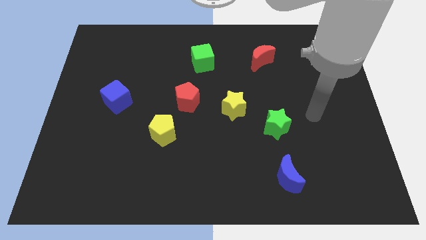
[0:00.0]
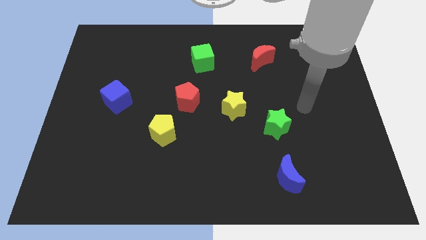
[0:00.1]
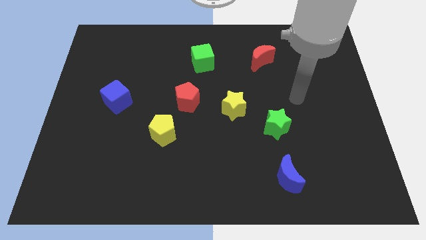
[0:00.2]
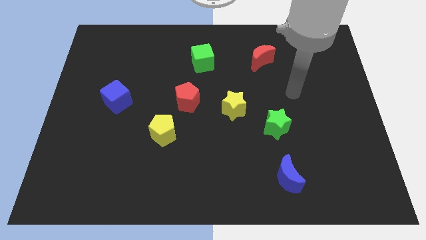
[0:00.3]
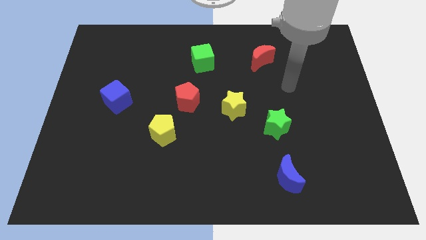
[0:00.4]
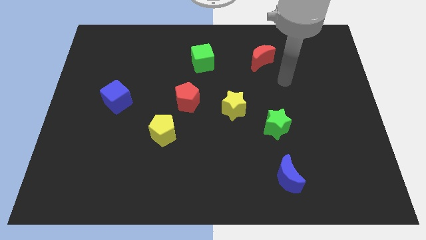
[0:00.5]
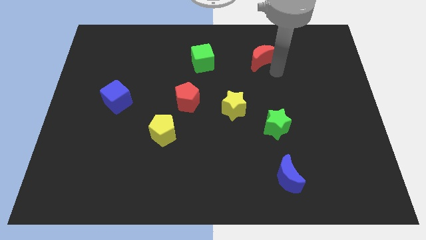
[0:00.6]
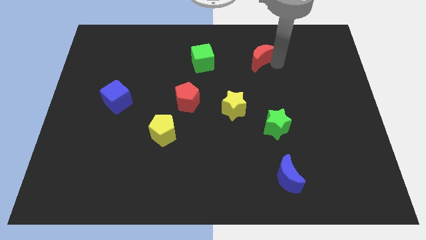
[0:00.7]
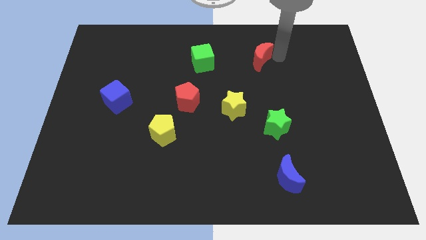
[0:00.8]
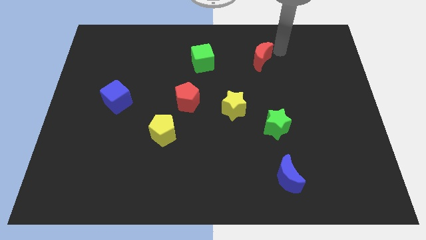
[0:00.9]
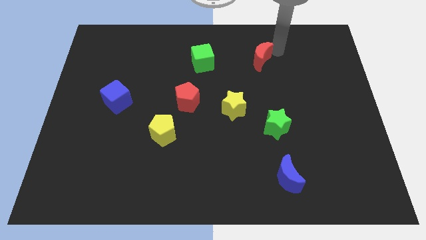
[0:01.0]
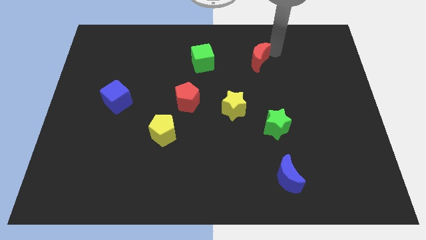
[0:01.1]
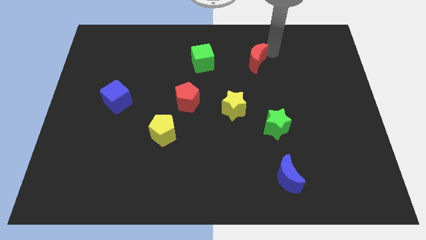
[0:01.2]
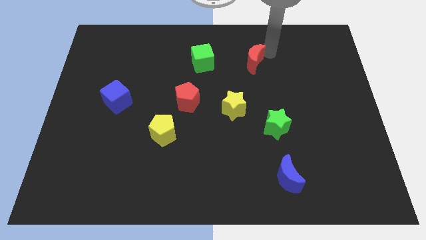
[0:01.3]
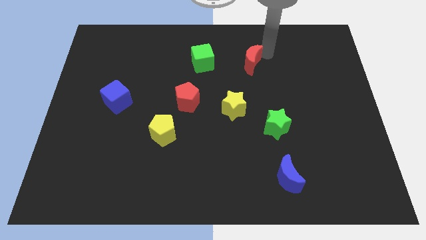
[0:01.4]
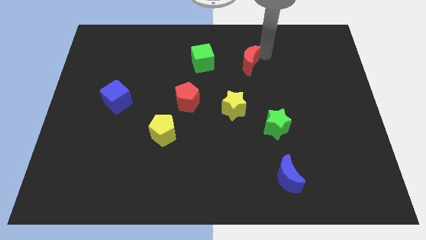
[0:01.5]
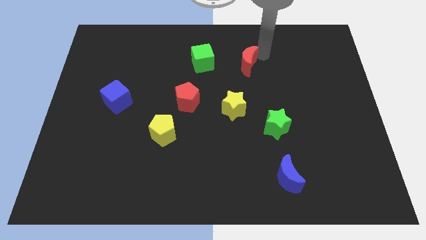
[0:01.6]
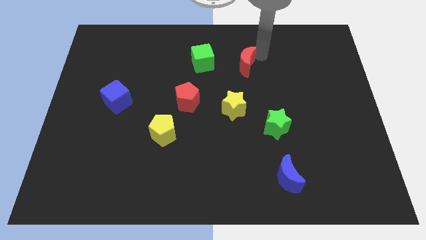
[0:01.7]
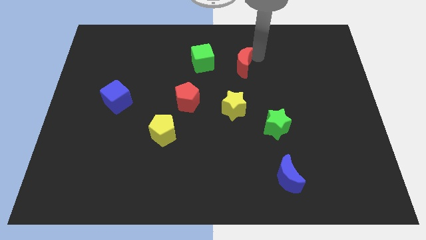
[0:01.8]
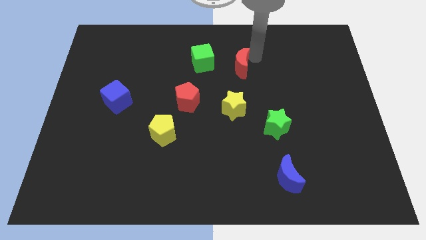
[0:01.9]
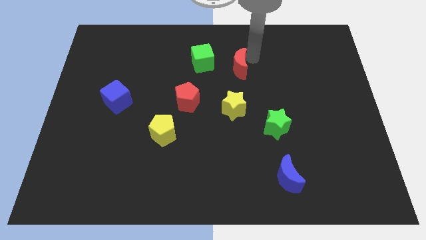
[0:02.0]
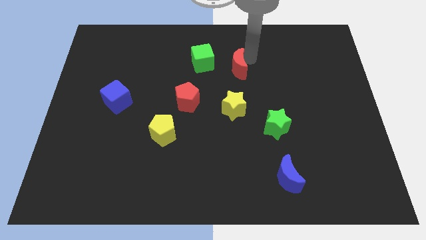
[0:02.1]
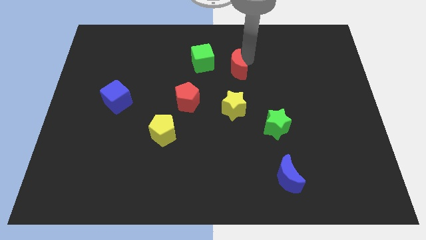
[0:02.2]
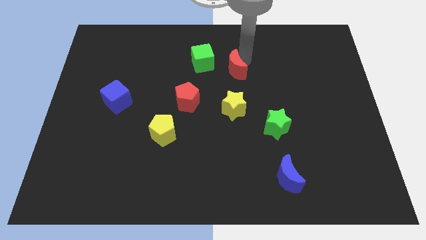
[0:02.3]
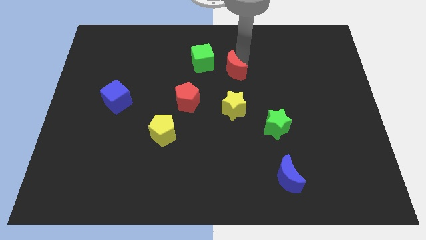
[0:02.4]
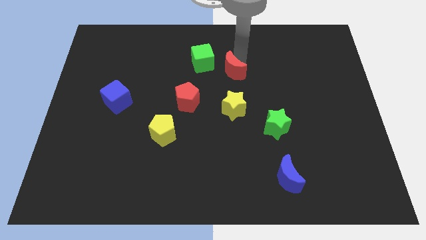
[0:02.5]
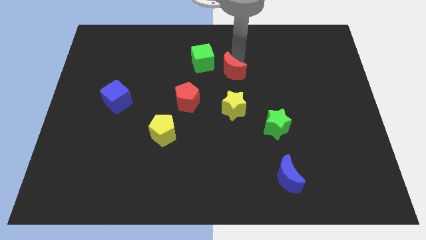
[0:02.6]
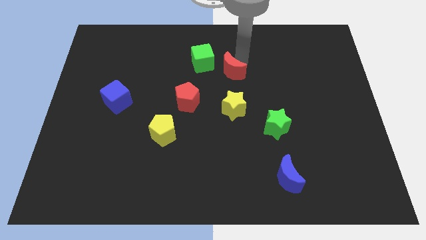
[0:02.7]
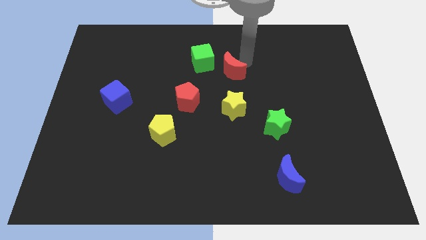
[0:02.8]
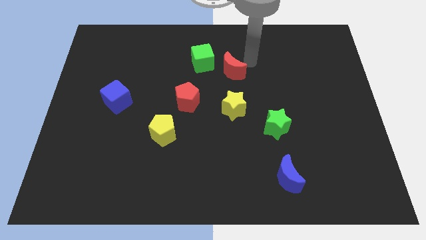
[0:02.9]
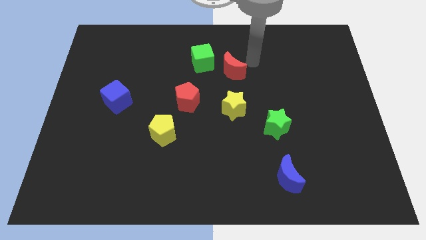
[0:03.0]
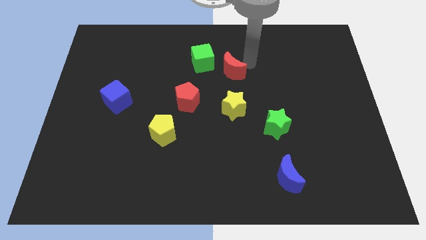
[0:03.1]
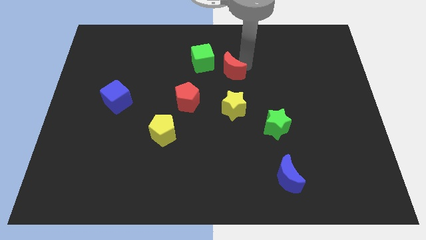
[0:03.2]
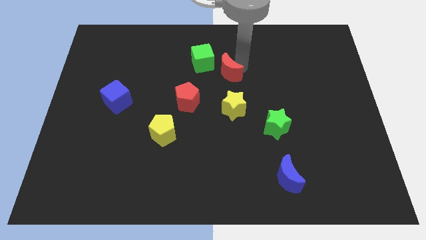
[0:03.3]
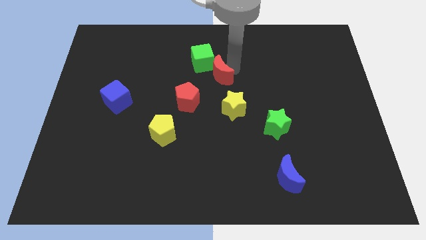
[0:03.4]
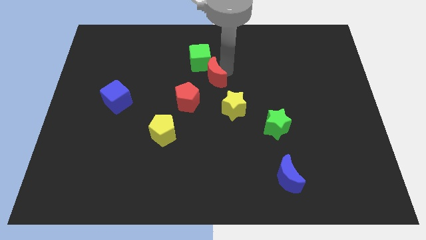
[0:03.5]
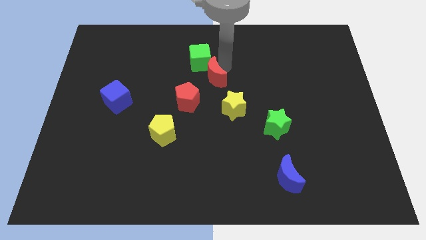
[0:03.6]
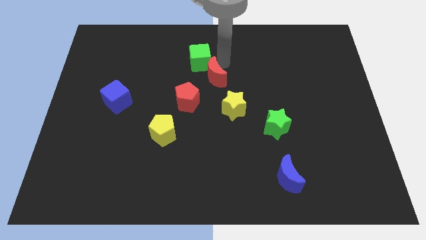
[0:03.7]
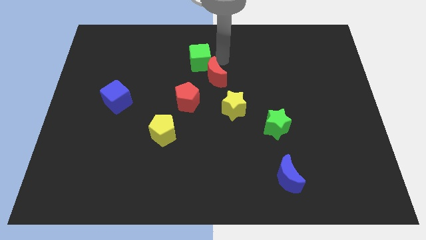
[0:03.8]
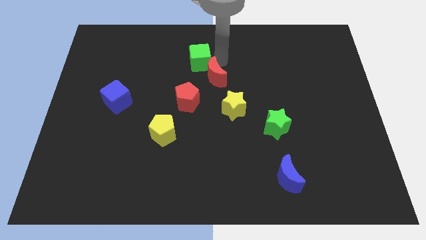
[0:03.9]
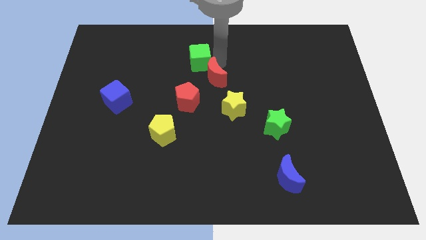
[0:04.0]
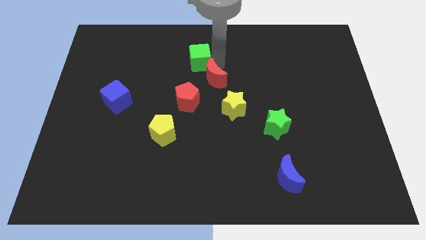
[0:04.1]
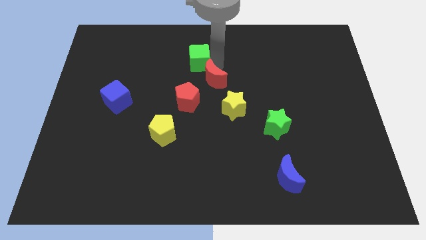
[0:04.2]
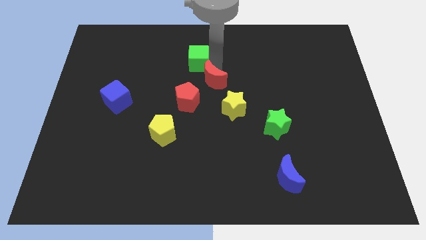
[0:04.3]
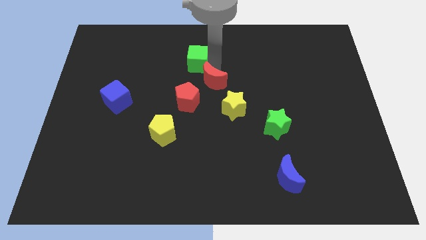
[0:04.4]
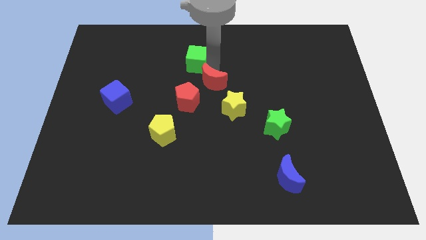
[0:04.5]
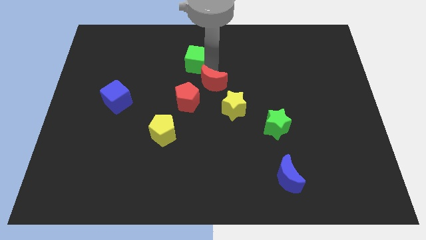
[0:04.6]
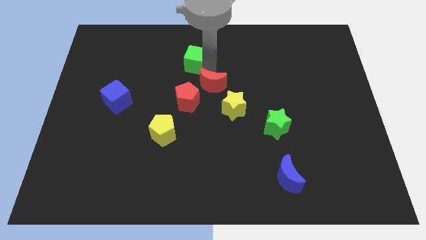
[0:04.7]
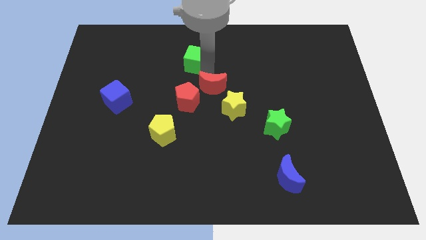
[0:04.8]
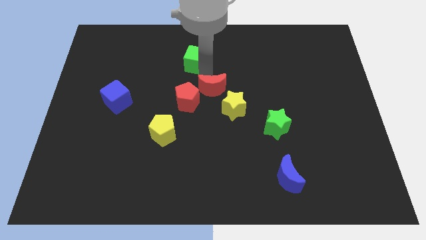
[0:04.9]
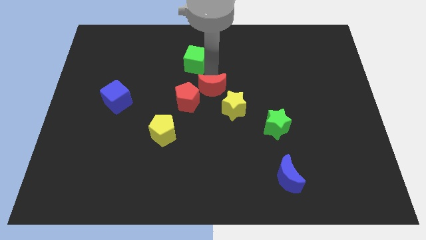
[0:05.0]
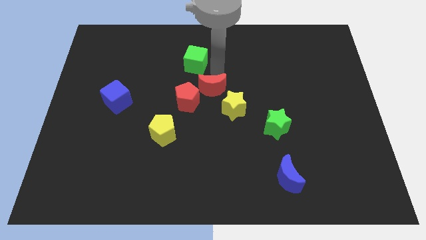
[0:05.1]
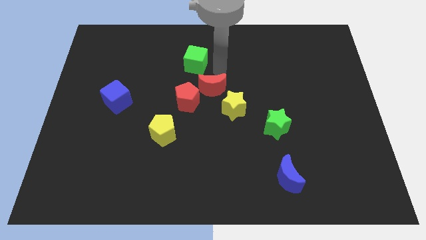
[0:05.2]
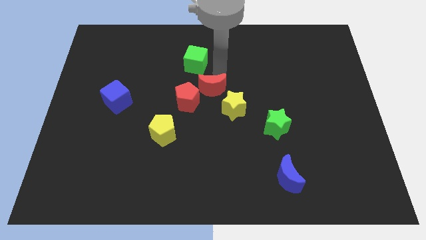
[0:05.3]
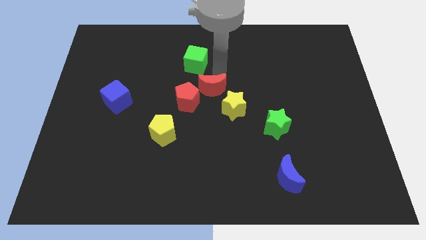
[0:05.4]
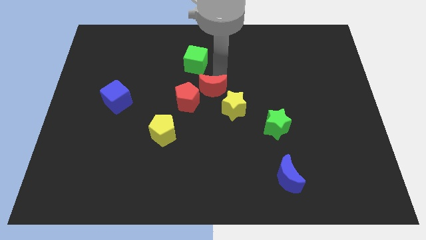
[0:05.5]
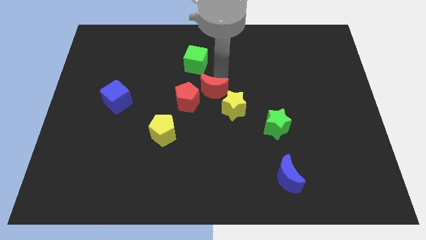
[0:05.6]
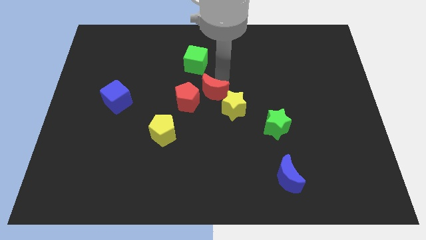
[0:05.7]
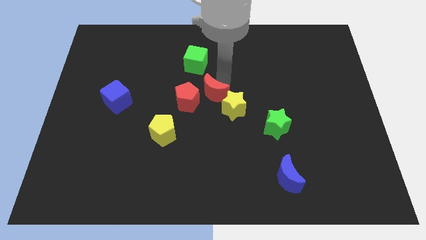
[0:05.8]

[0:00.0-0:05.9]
push the red moon to the left side of the yellow star
